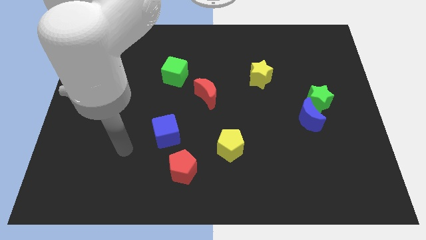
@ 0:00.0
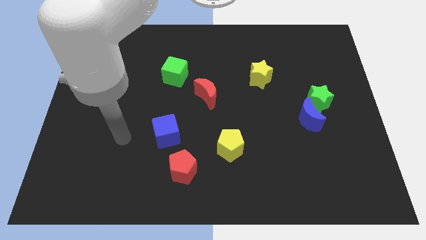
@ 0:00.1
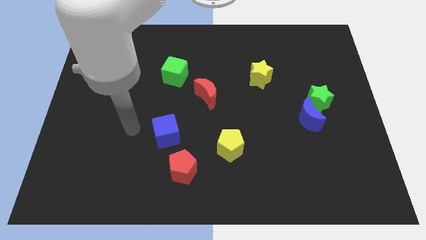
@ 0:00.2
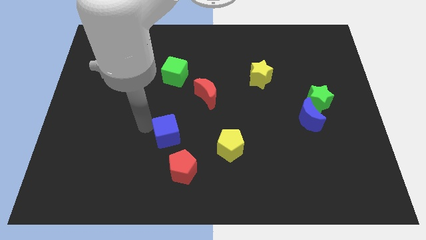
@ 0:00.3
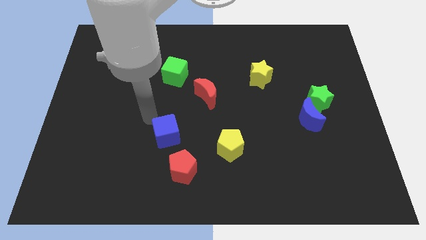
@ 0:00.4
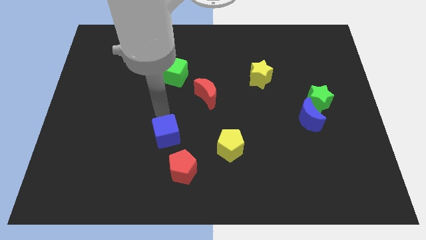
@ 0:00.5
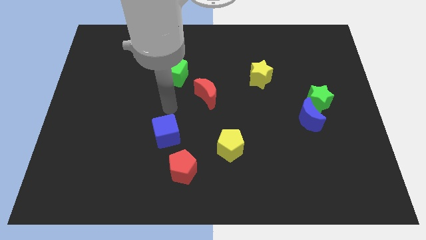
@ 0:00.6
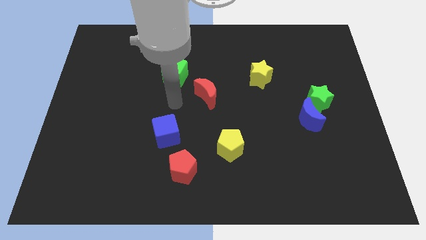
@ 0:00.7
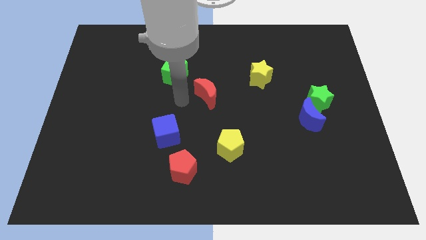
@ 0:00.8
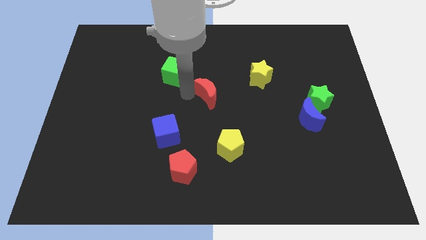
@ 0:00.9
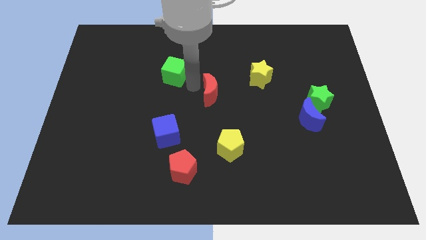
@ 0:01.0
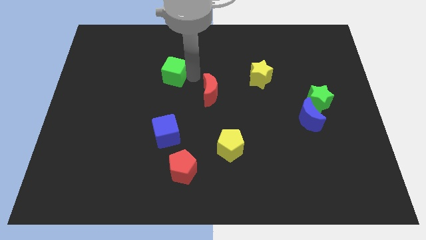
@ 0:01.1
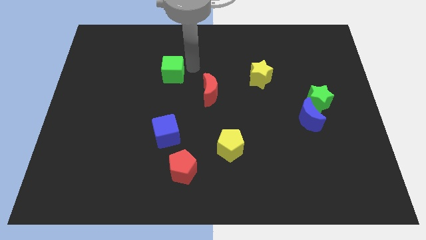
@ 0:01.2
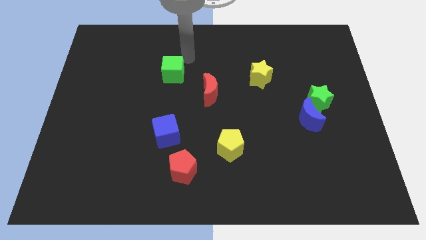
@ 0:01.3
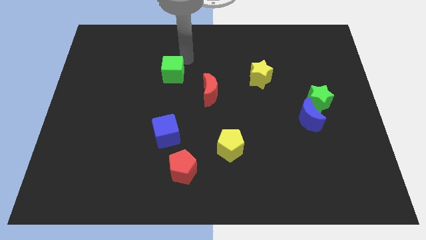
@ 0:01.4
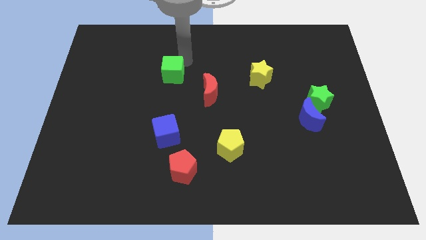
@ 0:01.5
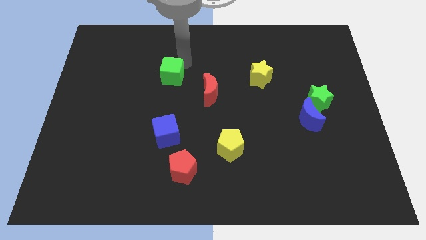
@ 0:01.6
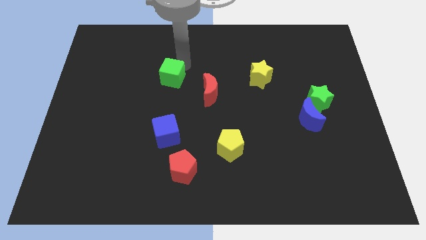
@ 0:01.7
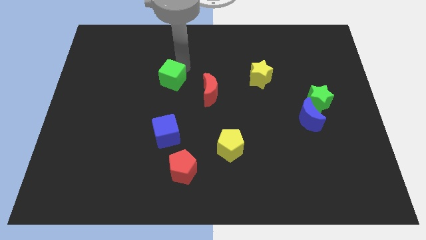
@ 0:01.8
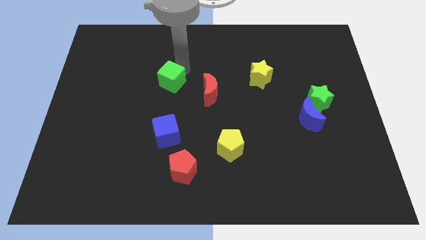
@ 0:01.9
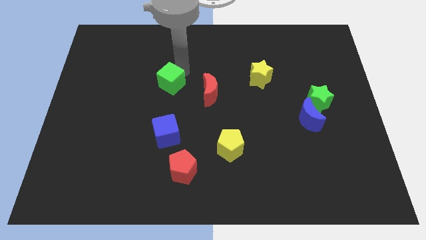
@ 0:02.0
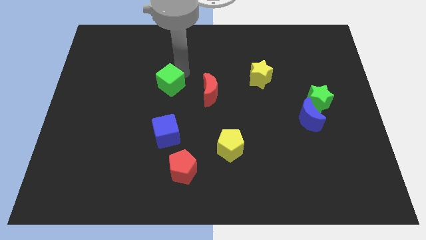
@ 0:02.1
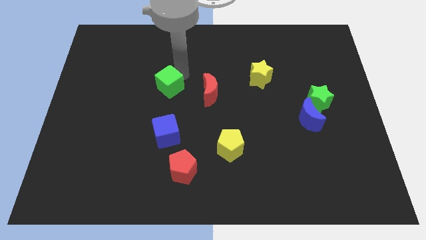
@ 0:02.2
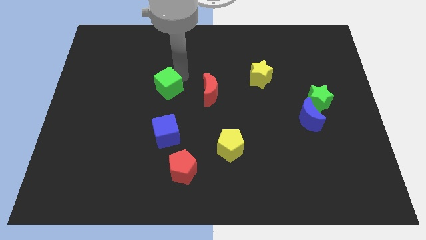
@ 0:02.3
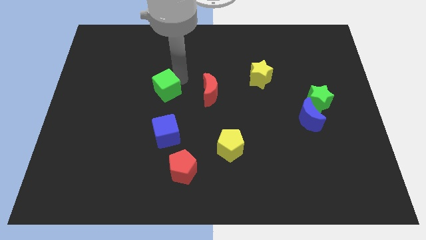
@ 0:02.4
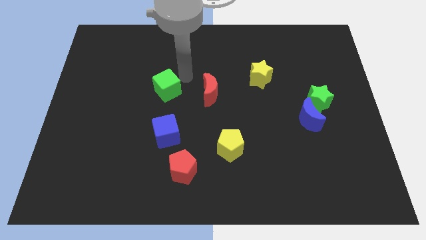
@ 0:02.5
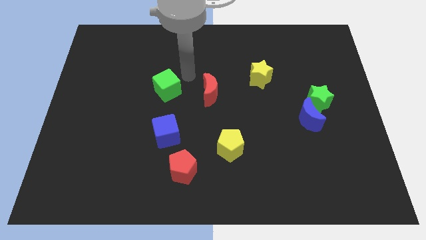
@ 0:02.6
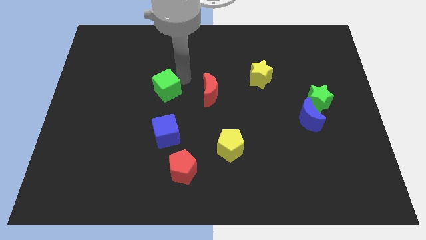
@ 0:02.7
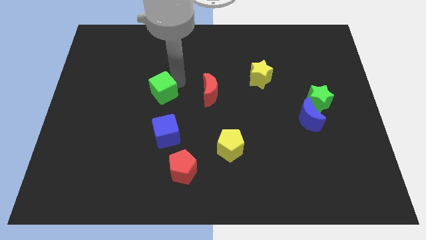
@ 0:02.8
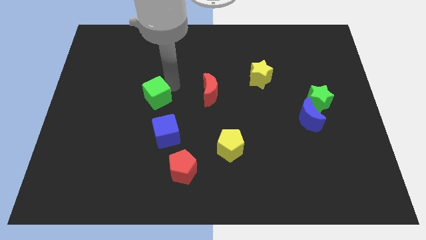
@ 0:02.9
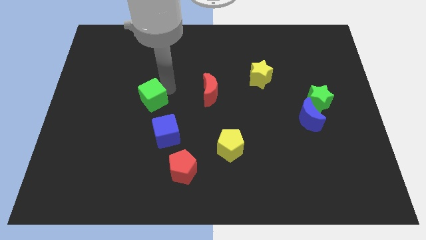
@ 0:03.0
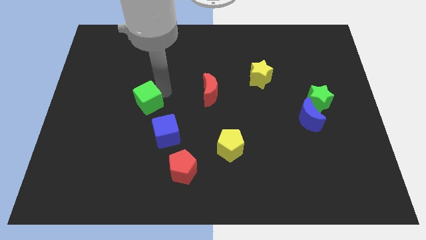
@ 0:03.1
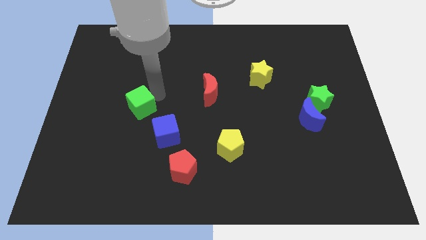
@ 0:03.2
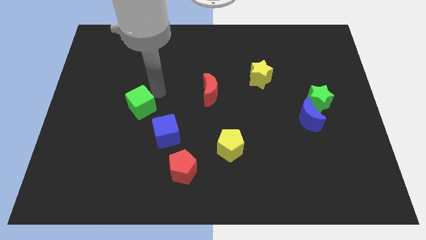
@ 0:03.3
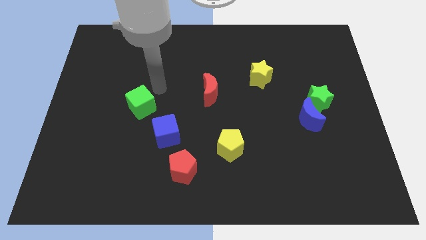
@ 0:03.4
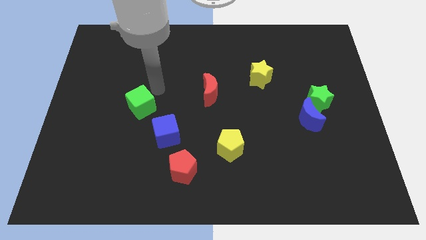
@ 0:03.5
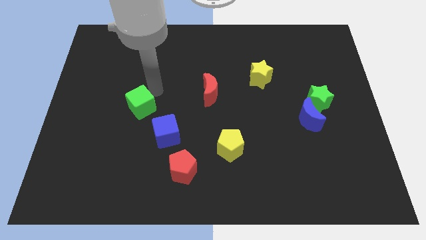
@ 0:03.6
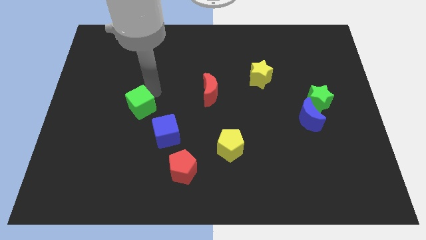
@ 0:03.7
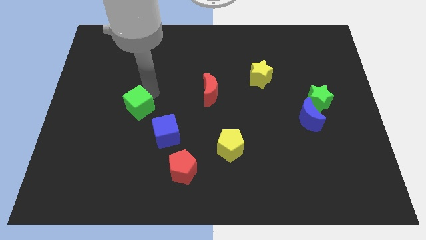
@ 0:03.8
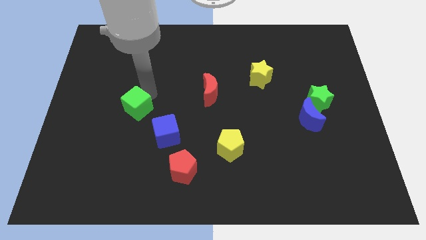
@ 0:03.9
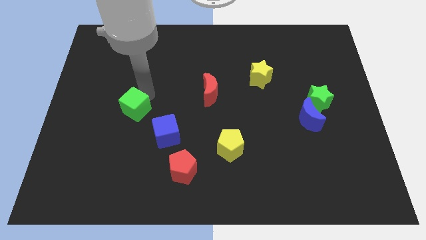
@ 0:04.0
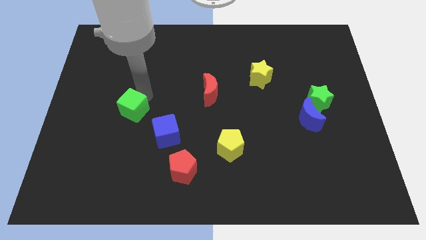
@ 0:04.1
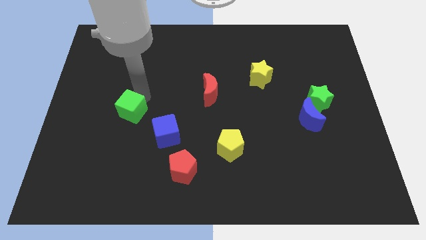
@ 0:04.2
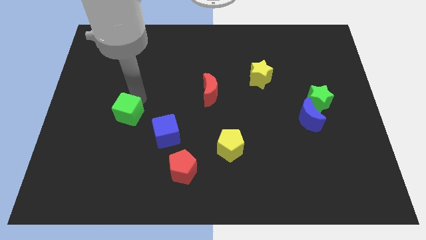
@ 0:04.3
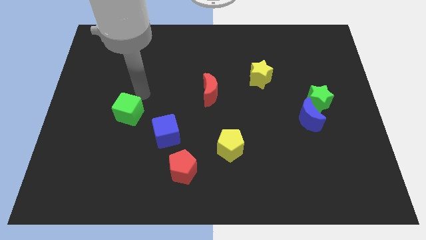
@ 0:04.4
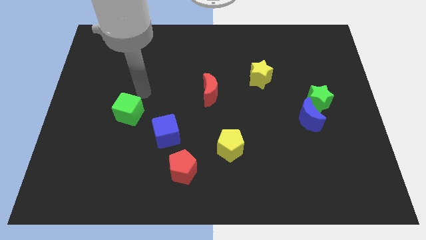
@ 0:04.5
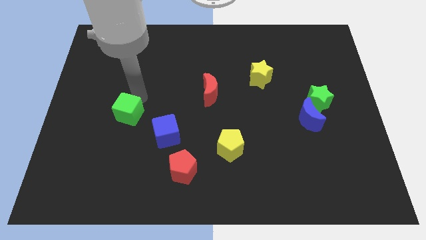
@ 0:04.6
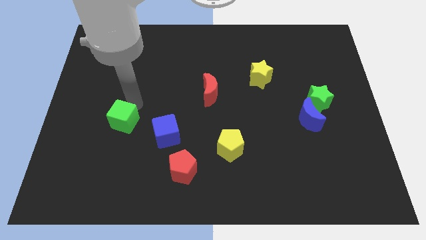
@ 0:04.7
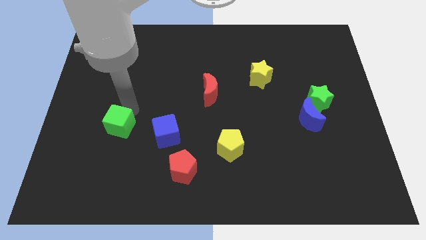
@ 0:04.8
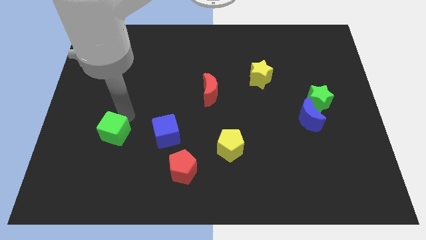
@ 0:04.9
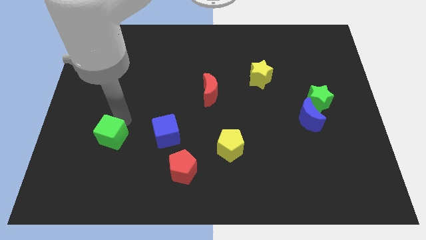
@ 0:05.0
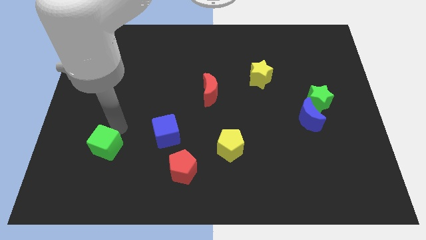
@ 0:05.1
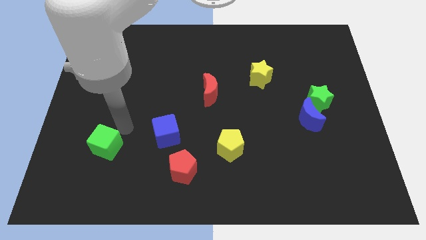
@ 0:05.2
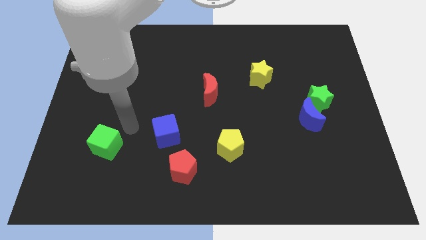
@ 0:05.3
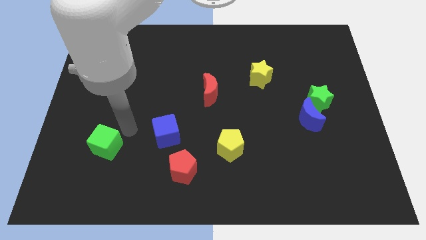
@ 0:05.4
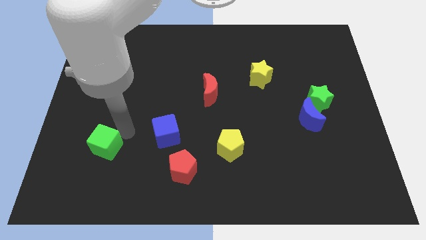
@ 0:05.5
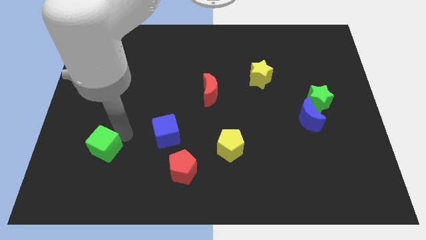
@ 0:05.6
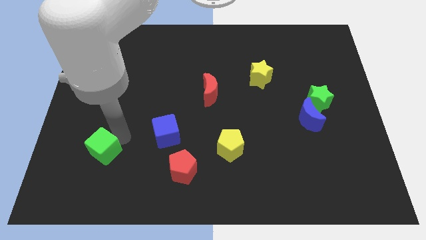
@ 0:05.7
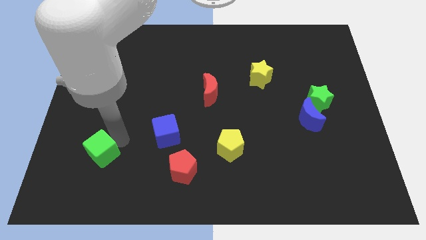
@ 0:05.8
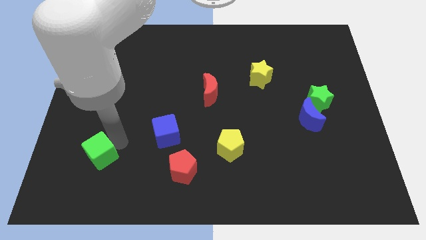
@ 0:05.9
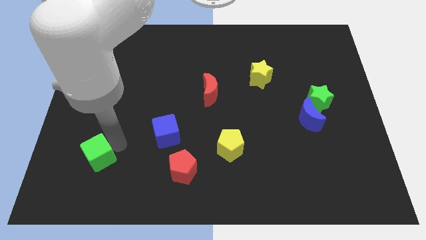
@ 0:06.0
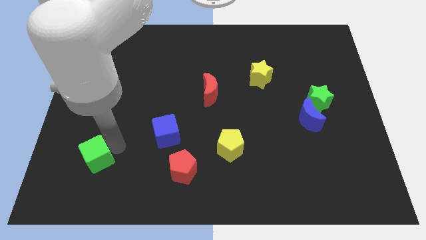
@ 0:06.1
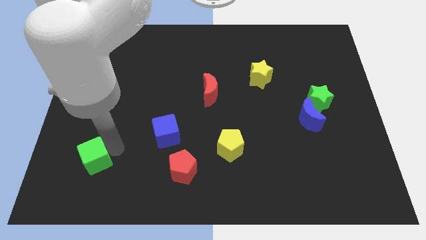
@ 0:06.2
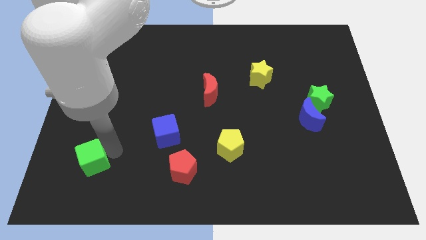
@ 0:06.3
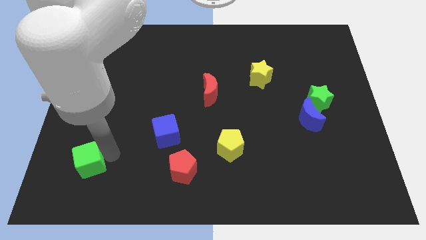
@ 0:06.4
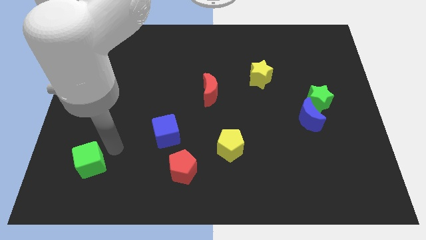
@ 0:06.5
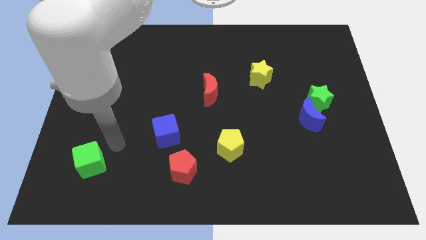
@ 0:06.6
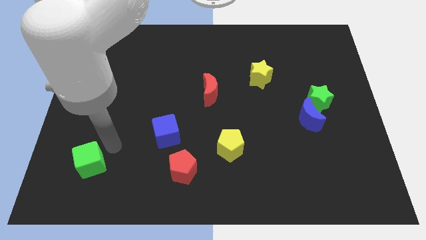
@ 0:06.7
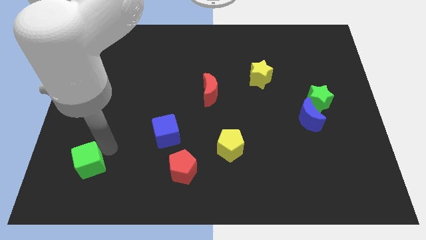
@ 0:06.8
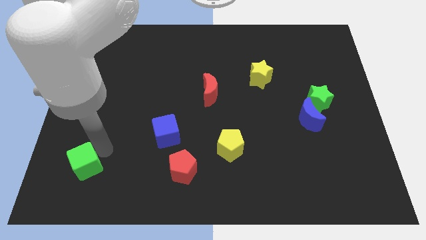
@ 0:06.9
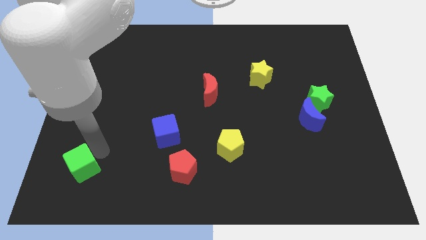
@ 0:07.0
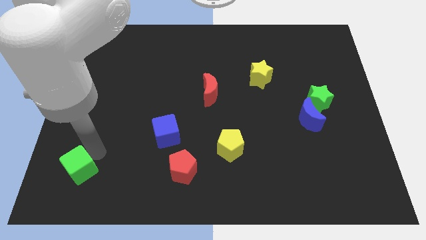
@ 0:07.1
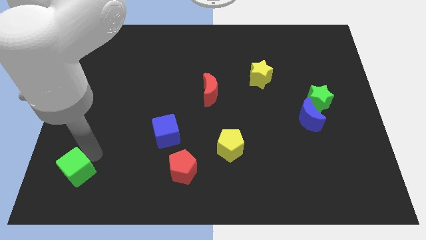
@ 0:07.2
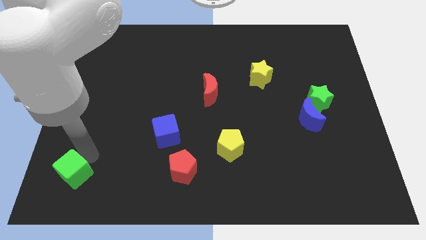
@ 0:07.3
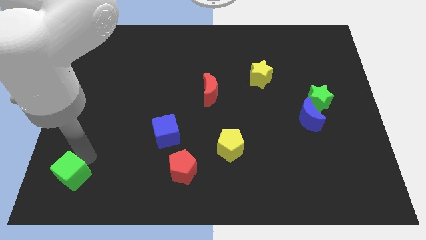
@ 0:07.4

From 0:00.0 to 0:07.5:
move the green cube to the bottom left
